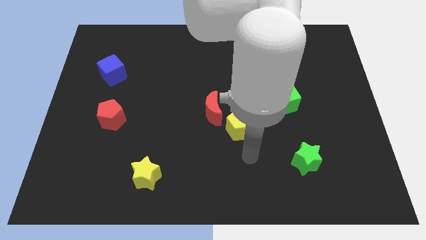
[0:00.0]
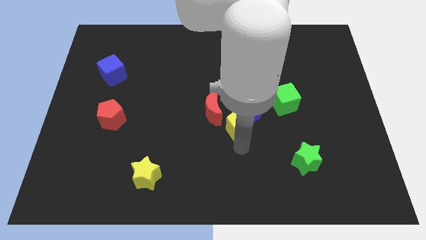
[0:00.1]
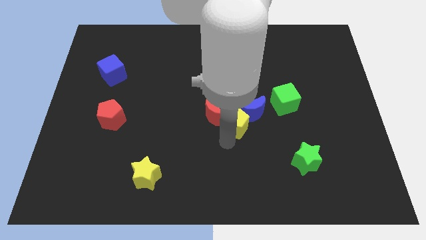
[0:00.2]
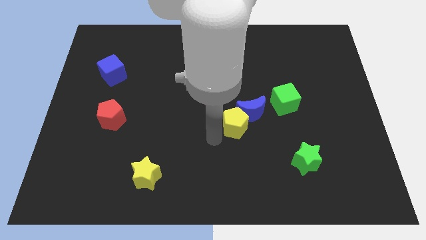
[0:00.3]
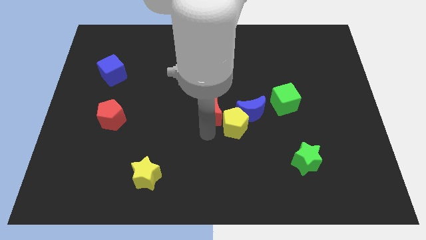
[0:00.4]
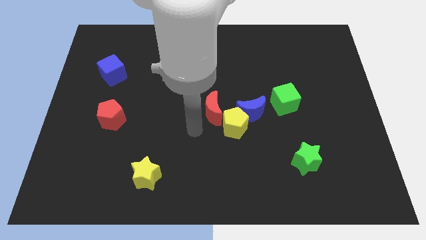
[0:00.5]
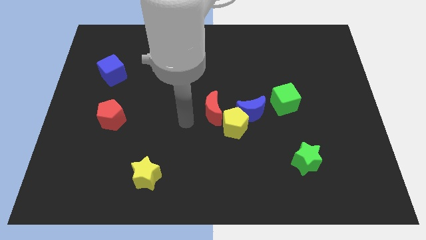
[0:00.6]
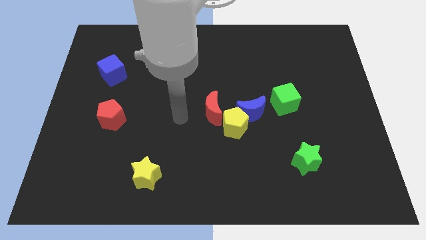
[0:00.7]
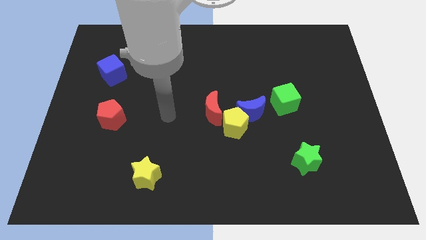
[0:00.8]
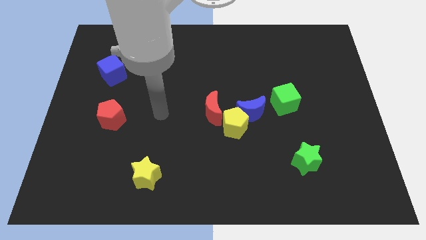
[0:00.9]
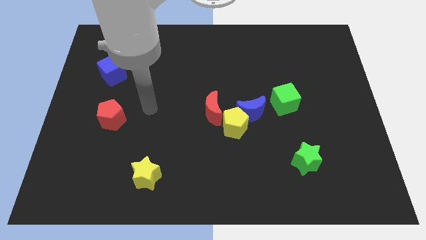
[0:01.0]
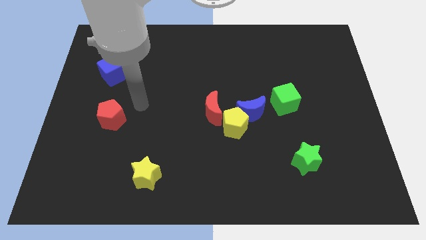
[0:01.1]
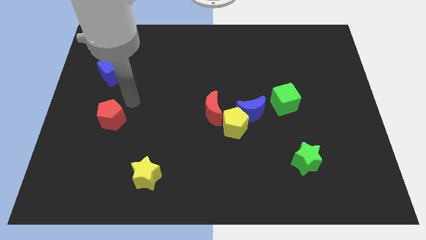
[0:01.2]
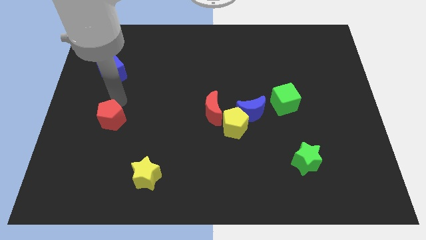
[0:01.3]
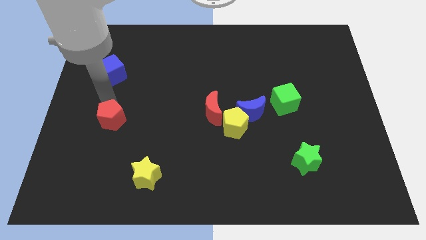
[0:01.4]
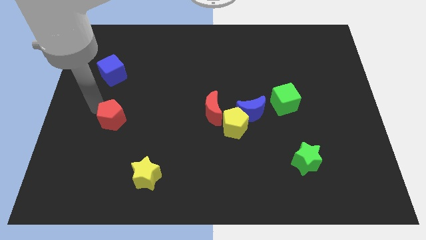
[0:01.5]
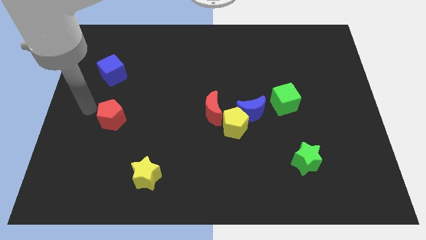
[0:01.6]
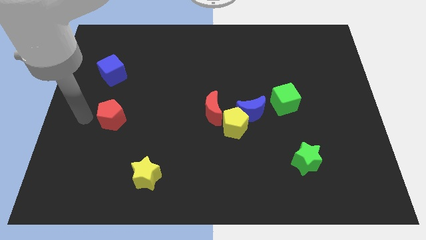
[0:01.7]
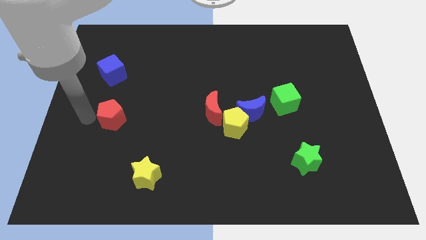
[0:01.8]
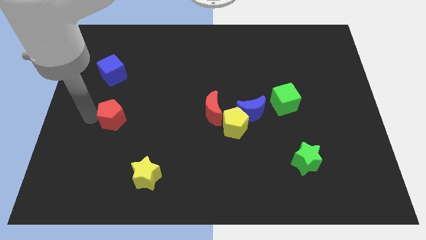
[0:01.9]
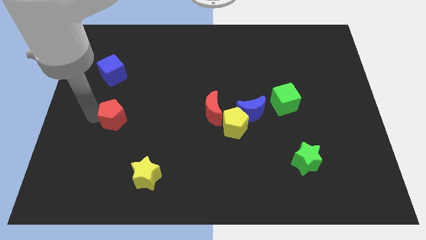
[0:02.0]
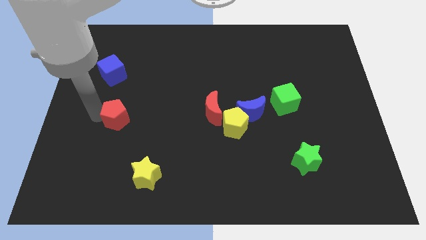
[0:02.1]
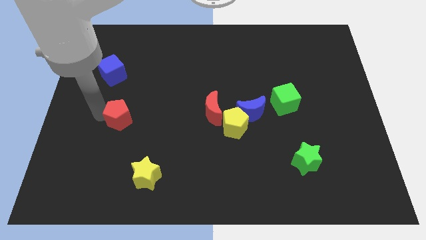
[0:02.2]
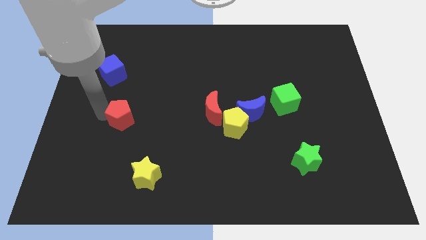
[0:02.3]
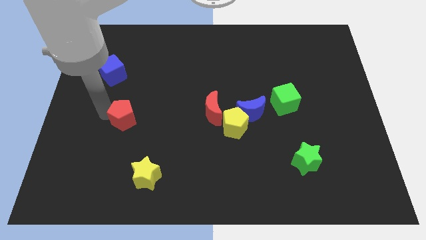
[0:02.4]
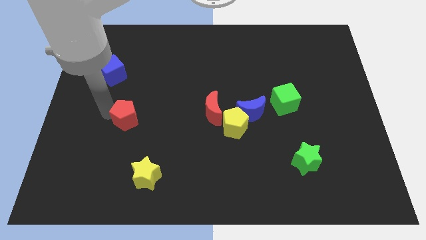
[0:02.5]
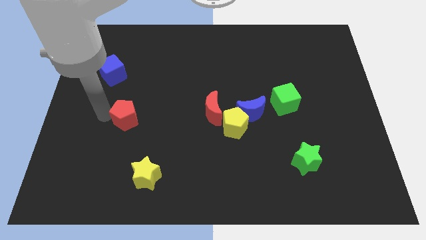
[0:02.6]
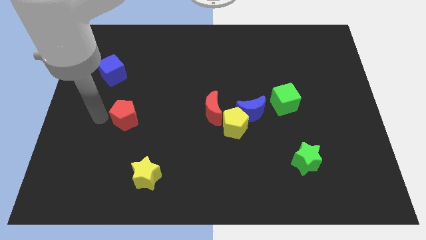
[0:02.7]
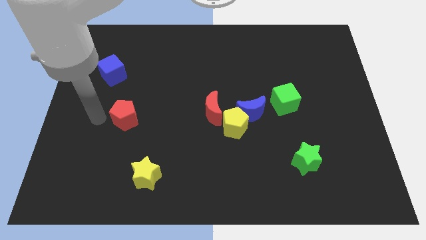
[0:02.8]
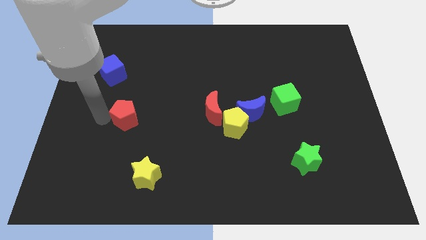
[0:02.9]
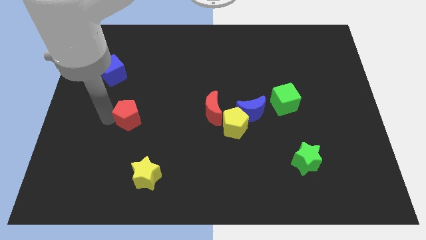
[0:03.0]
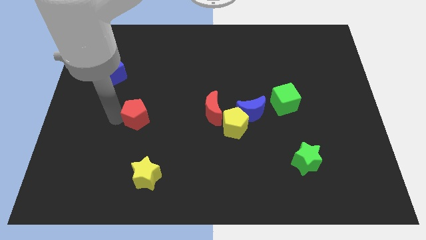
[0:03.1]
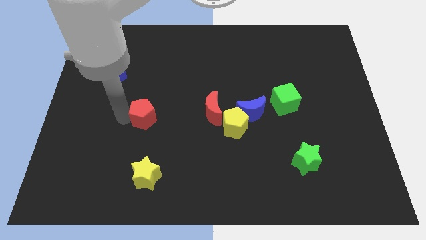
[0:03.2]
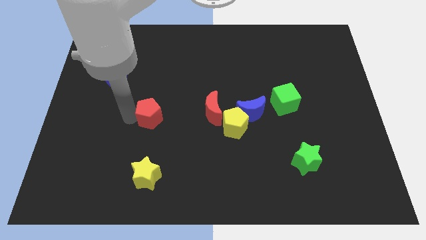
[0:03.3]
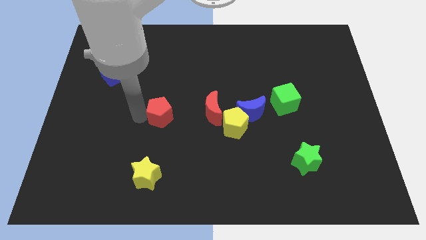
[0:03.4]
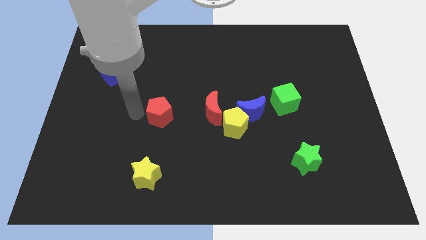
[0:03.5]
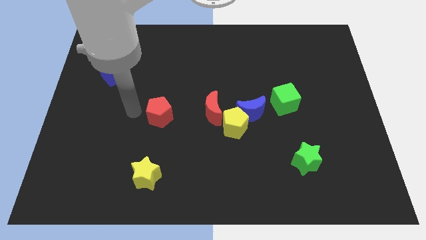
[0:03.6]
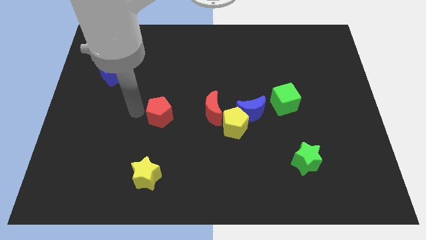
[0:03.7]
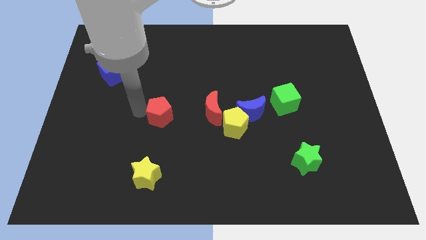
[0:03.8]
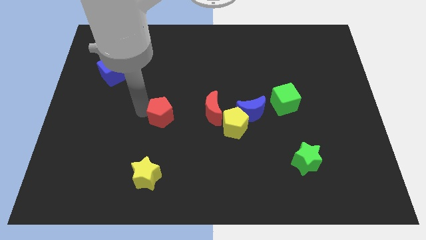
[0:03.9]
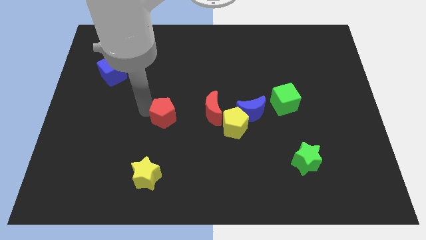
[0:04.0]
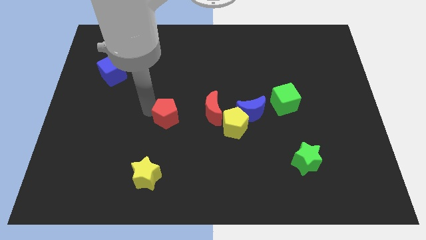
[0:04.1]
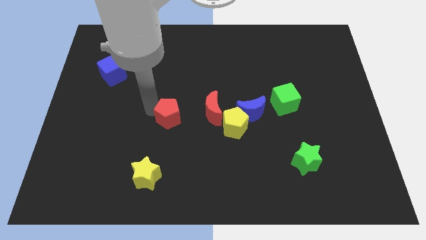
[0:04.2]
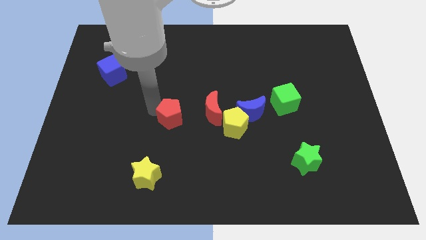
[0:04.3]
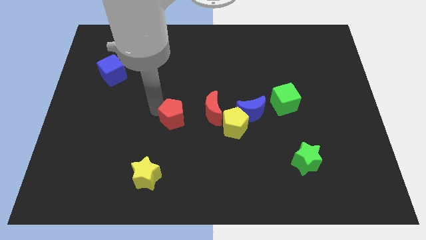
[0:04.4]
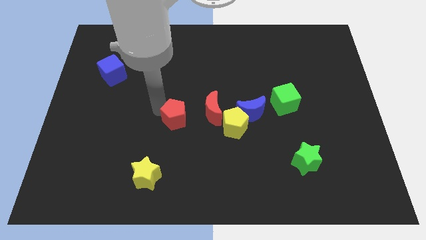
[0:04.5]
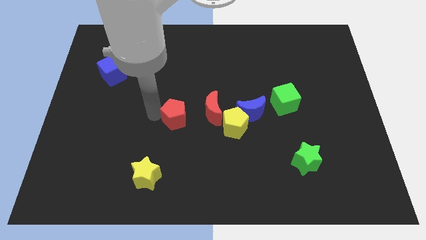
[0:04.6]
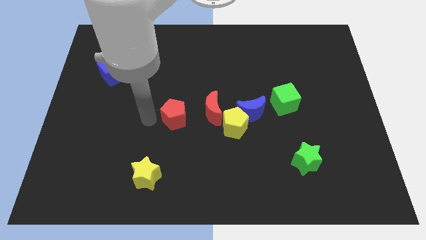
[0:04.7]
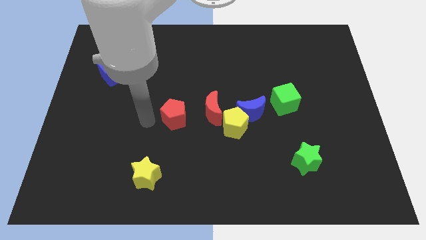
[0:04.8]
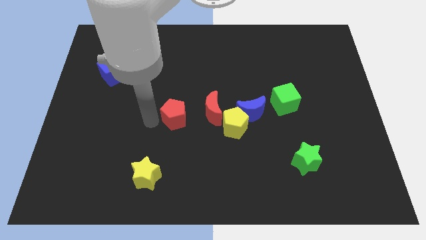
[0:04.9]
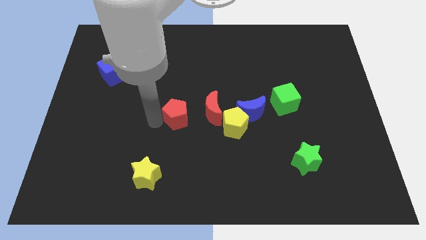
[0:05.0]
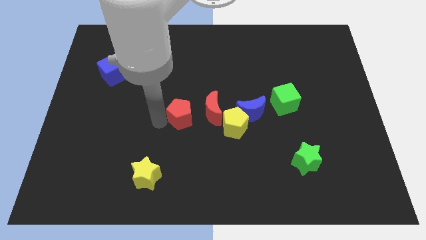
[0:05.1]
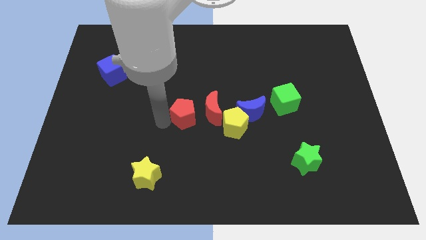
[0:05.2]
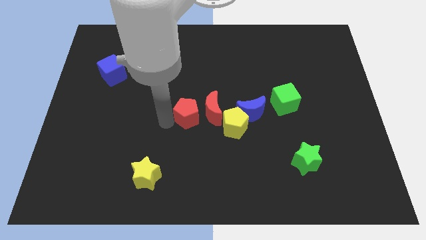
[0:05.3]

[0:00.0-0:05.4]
slide the red pentagon towards the red moon

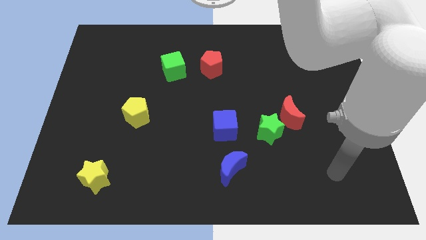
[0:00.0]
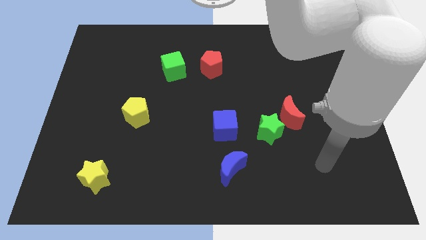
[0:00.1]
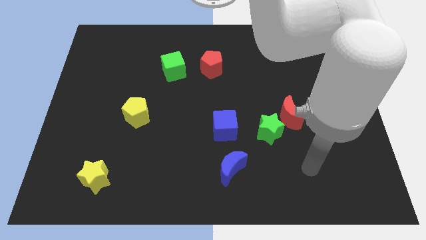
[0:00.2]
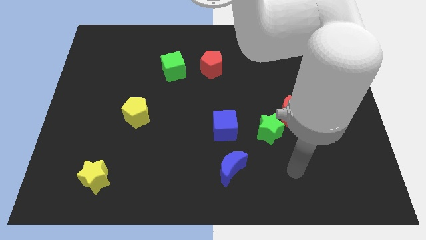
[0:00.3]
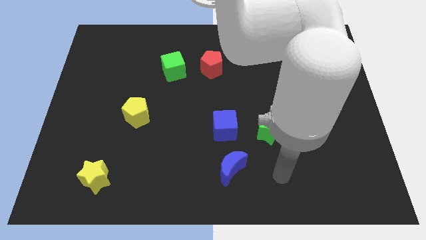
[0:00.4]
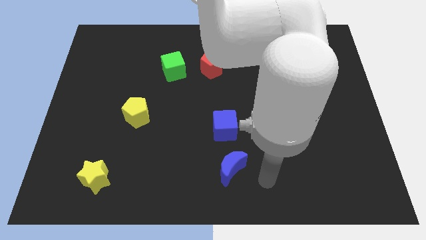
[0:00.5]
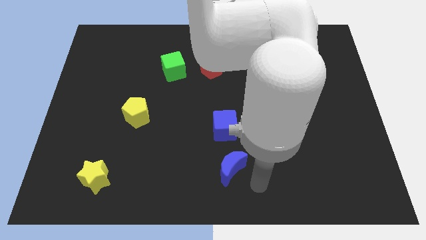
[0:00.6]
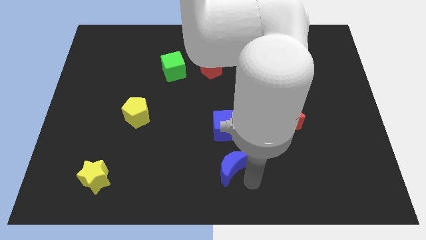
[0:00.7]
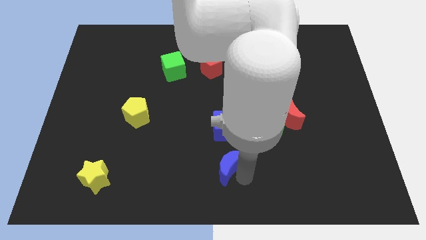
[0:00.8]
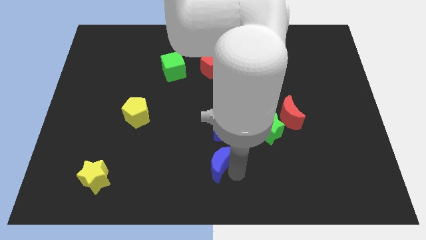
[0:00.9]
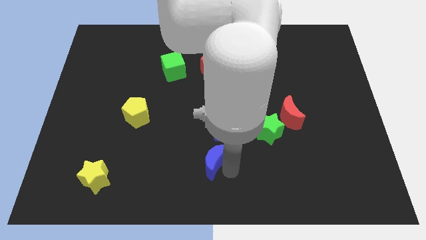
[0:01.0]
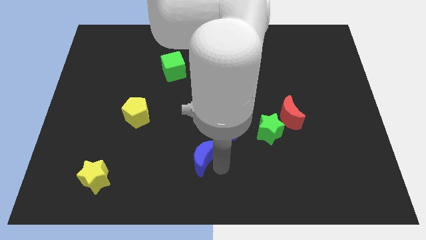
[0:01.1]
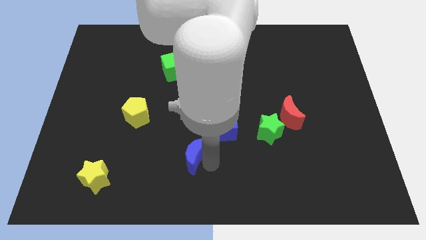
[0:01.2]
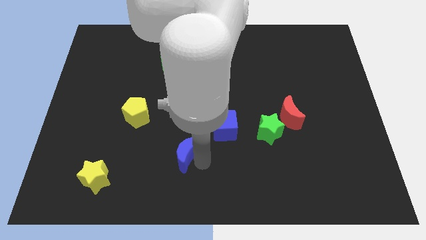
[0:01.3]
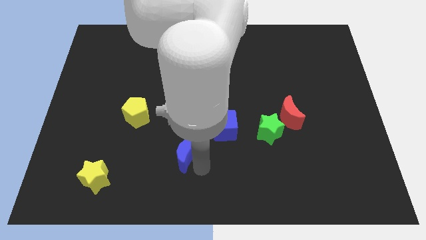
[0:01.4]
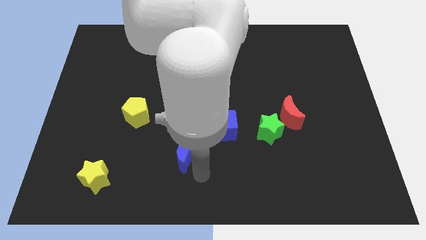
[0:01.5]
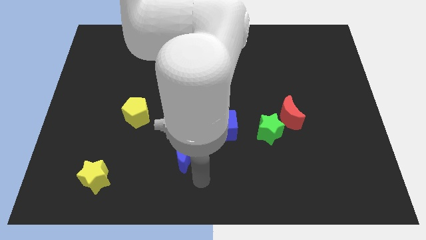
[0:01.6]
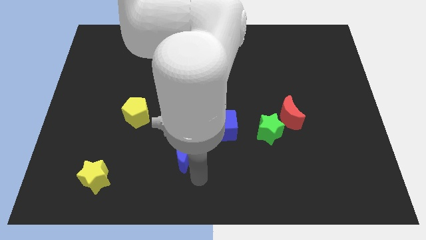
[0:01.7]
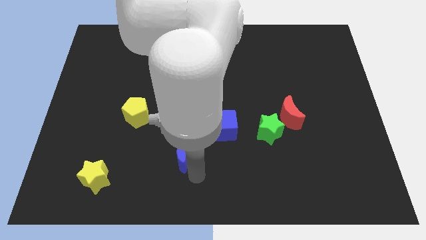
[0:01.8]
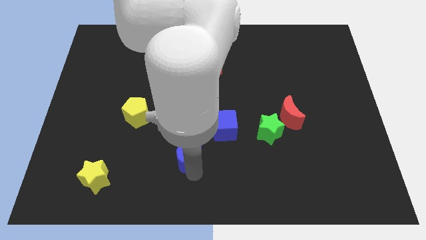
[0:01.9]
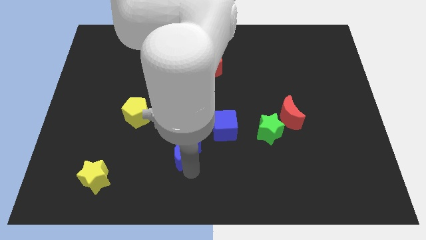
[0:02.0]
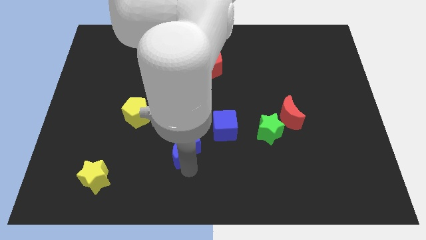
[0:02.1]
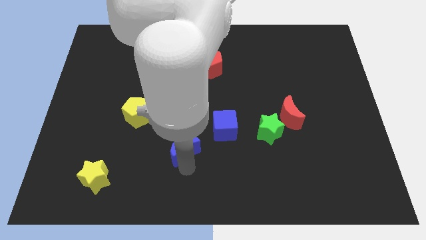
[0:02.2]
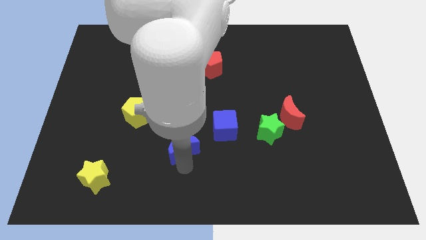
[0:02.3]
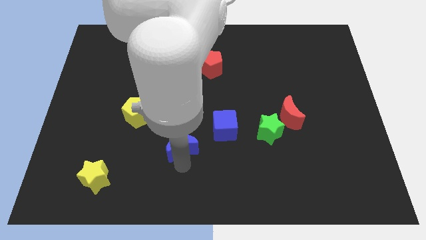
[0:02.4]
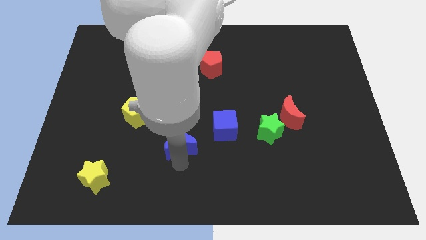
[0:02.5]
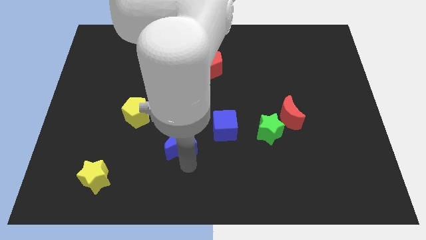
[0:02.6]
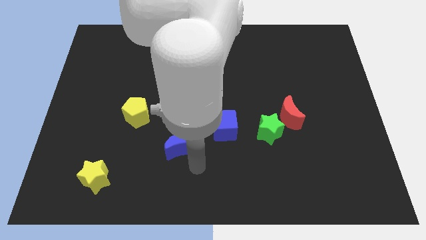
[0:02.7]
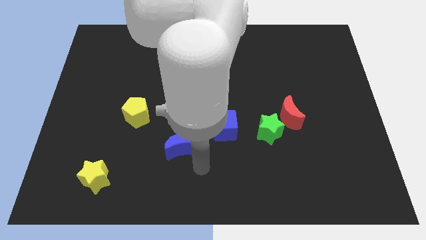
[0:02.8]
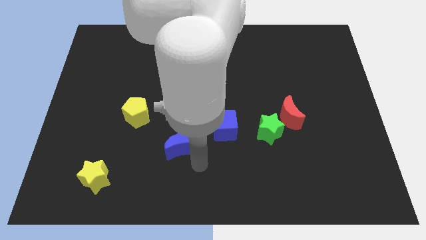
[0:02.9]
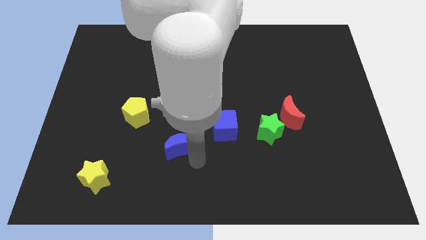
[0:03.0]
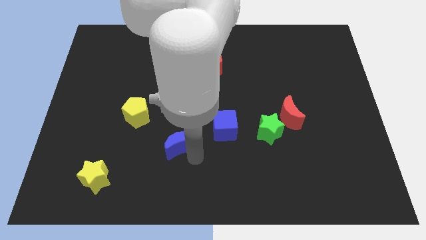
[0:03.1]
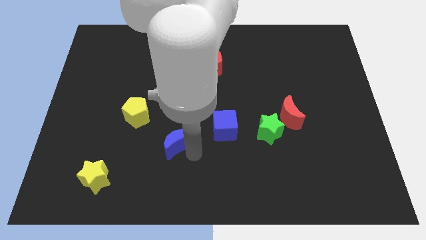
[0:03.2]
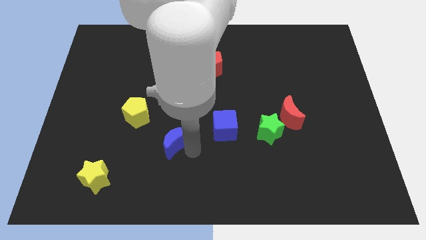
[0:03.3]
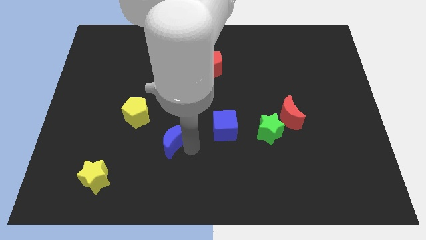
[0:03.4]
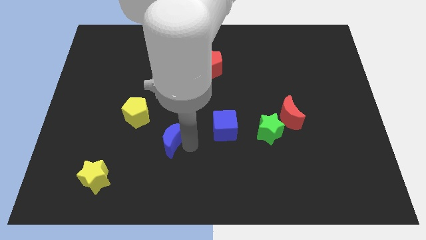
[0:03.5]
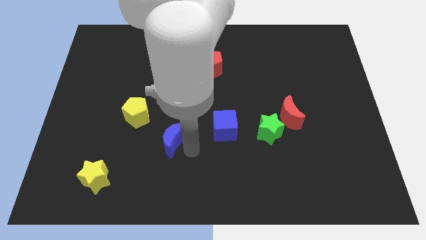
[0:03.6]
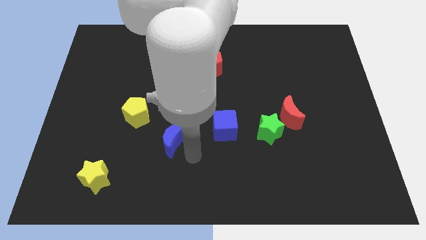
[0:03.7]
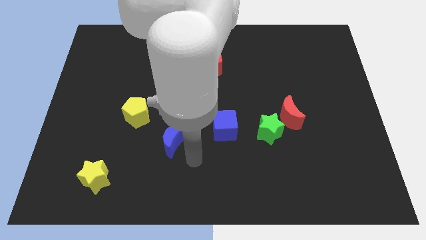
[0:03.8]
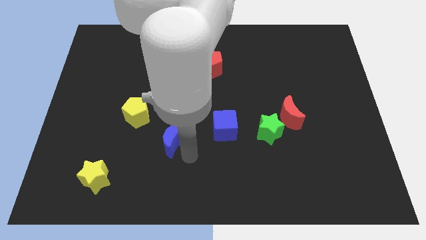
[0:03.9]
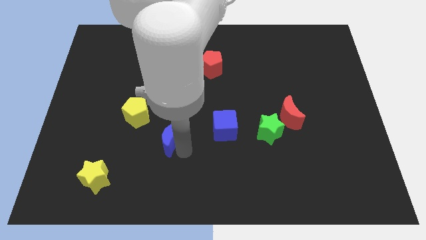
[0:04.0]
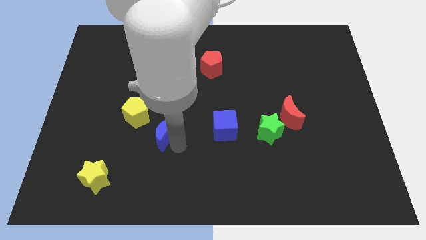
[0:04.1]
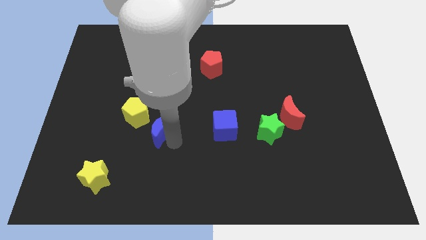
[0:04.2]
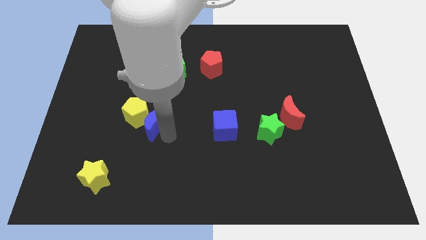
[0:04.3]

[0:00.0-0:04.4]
push the blue moon next to the yellow pentagon
